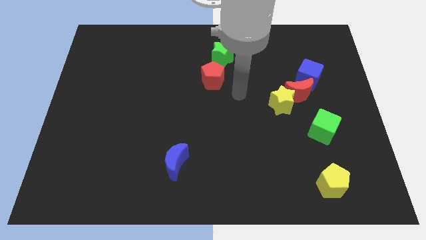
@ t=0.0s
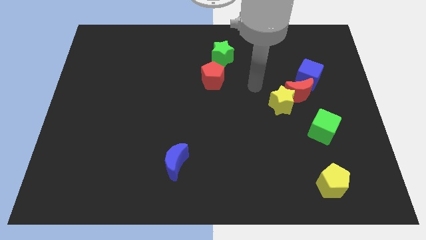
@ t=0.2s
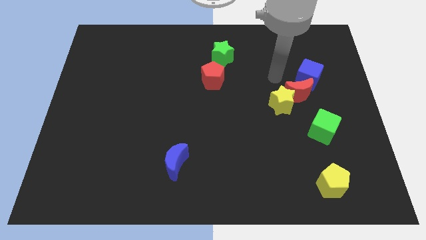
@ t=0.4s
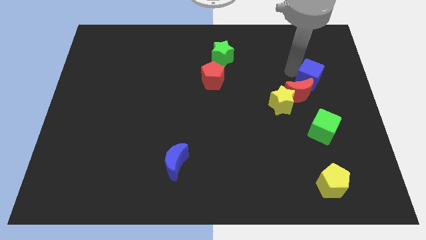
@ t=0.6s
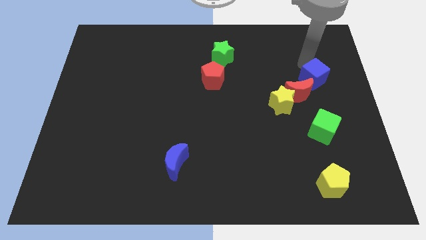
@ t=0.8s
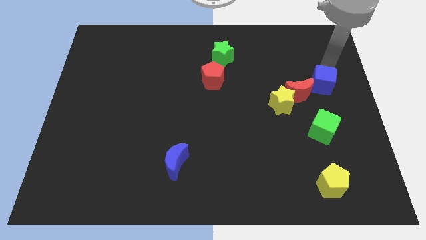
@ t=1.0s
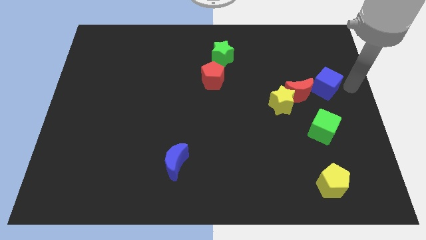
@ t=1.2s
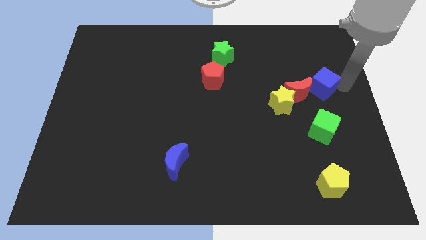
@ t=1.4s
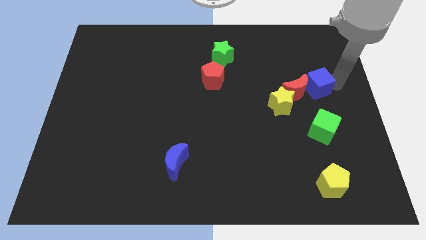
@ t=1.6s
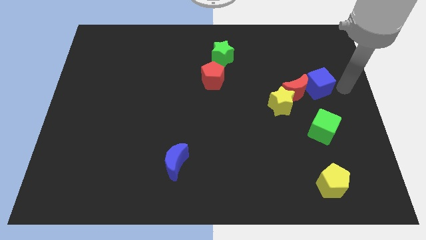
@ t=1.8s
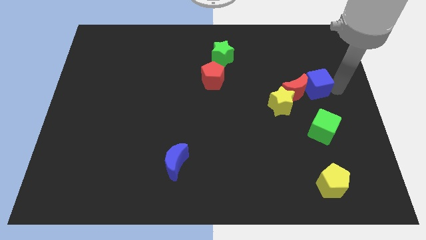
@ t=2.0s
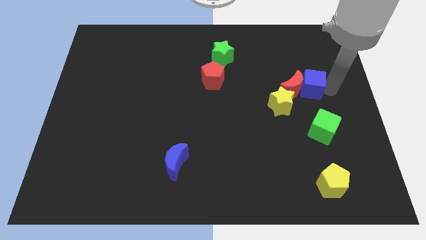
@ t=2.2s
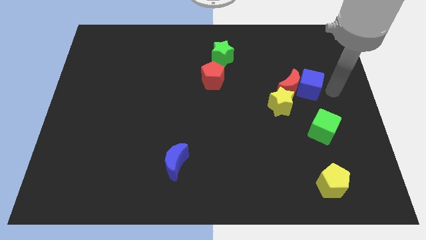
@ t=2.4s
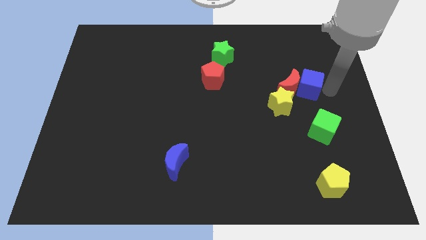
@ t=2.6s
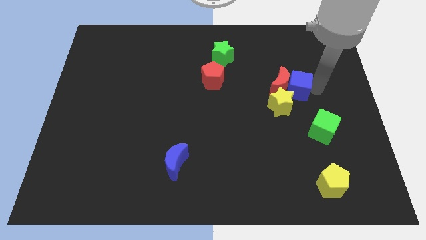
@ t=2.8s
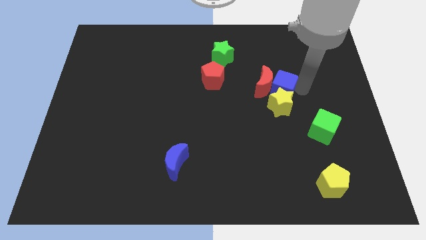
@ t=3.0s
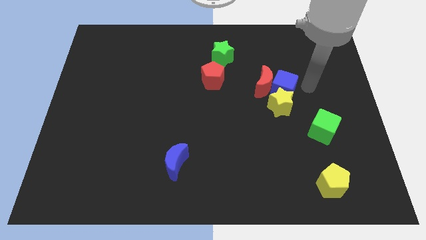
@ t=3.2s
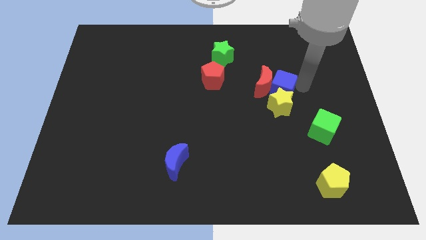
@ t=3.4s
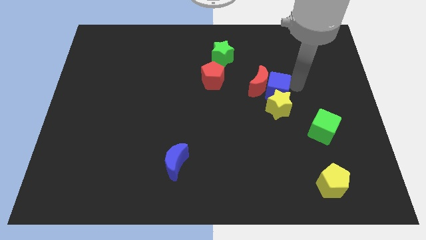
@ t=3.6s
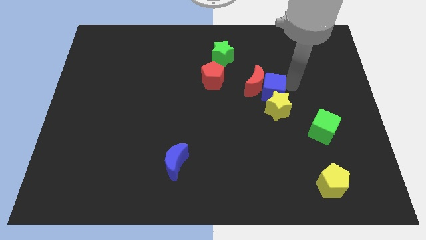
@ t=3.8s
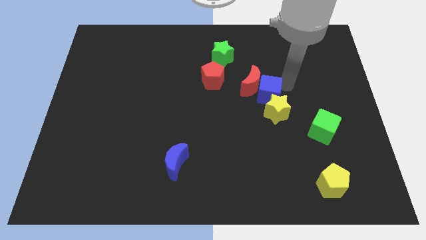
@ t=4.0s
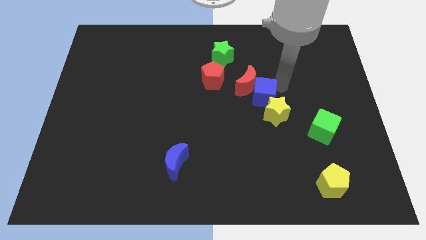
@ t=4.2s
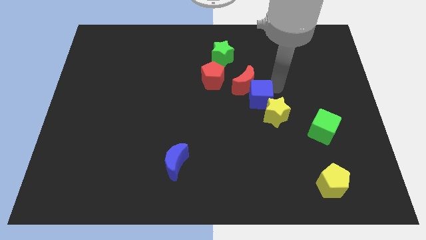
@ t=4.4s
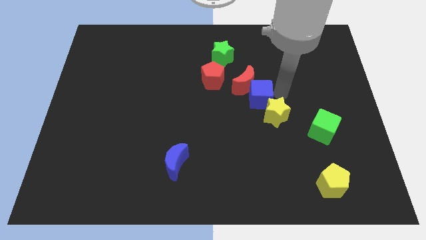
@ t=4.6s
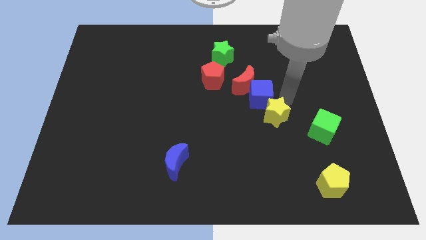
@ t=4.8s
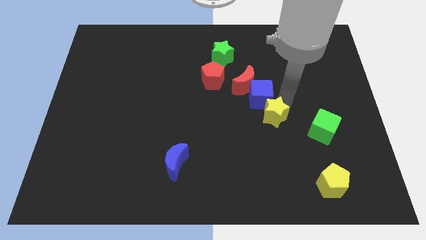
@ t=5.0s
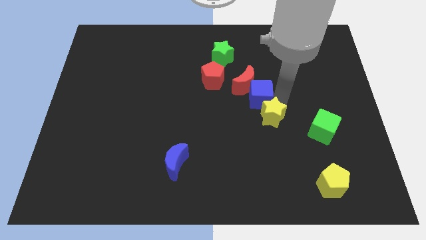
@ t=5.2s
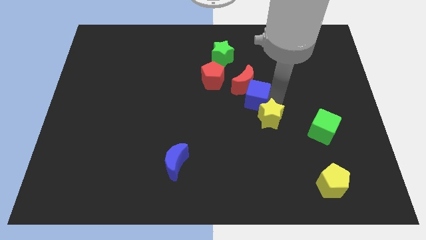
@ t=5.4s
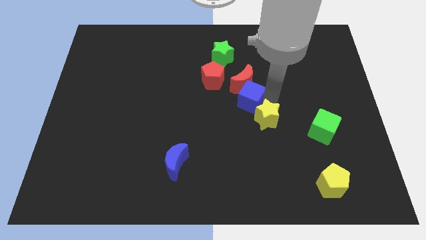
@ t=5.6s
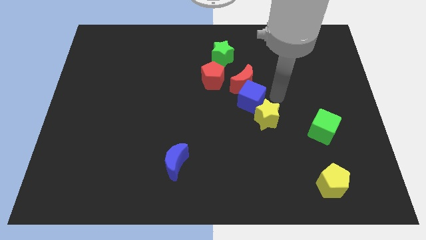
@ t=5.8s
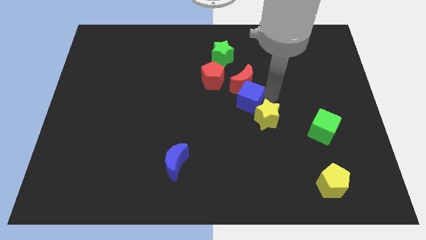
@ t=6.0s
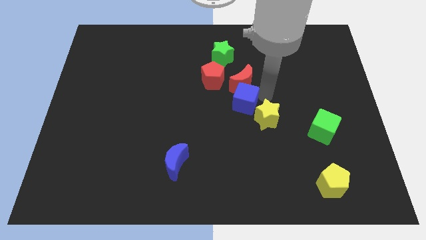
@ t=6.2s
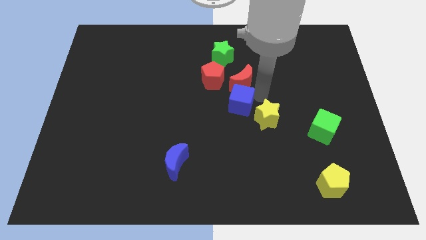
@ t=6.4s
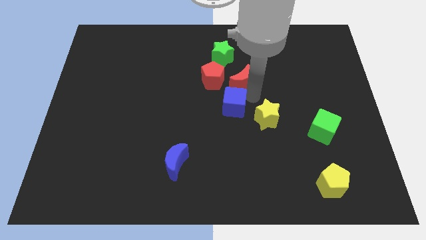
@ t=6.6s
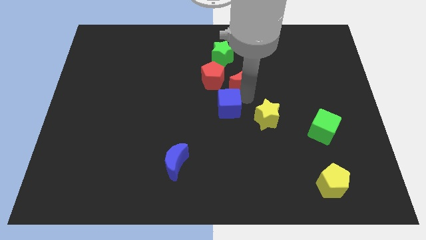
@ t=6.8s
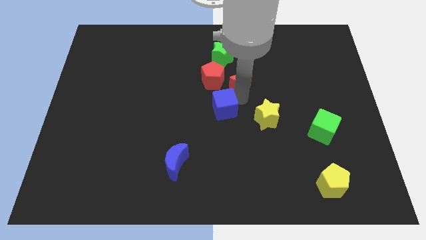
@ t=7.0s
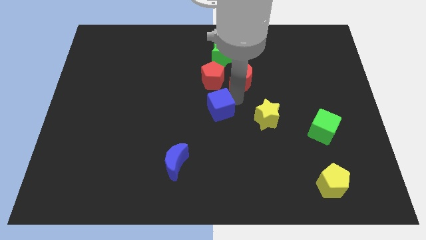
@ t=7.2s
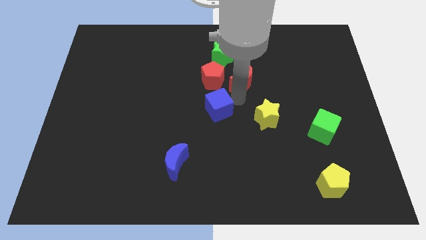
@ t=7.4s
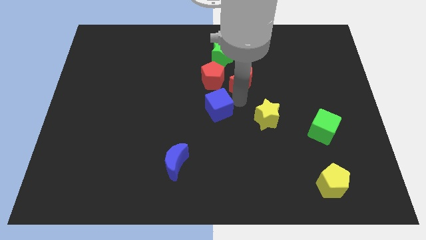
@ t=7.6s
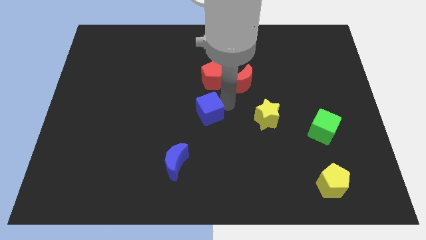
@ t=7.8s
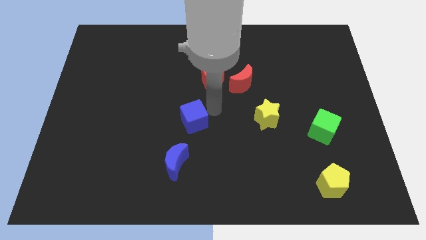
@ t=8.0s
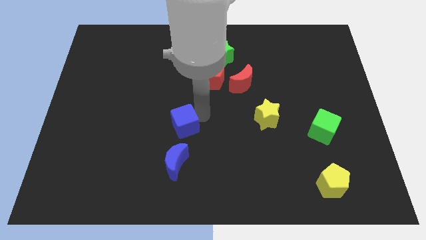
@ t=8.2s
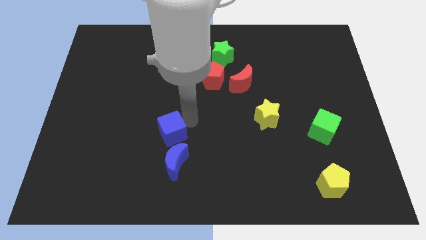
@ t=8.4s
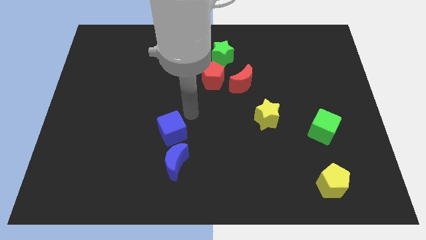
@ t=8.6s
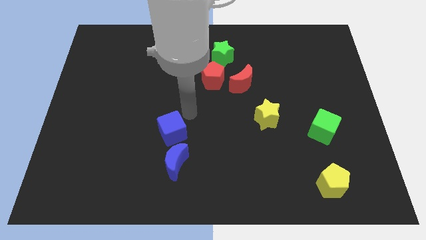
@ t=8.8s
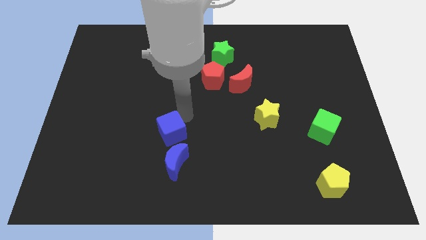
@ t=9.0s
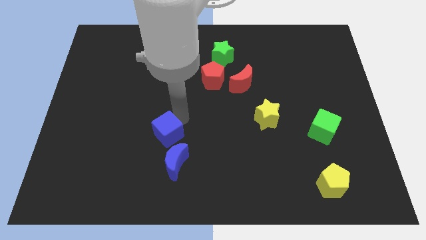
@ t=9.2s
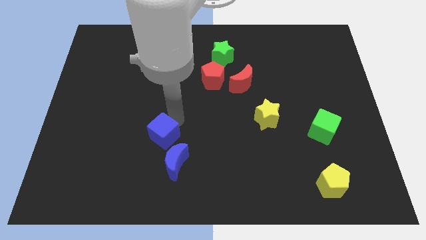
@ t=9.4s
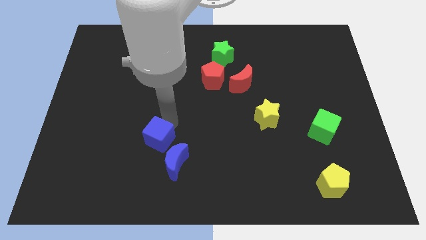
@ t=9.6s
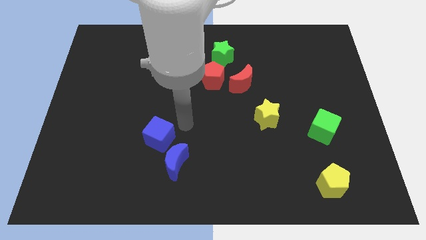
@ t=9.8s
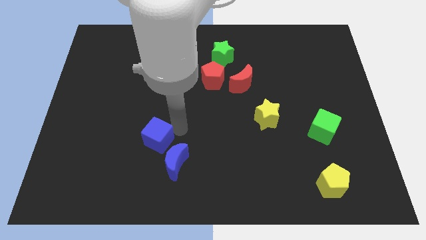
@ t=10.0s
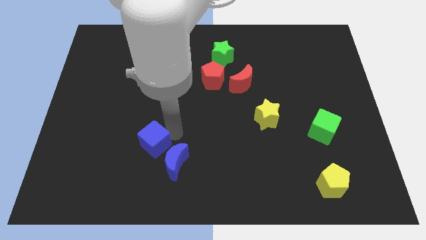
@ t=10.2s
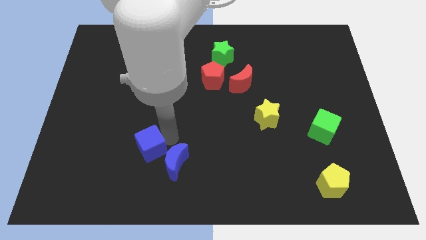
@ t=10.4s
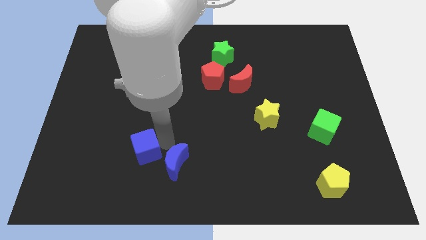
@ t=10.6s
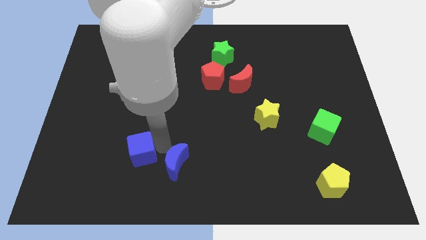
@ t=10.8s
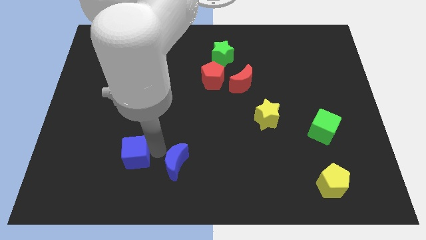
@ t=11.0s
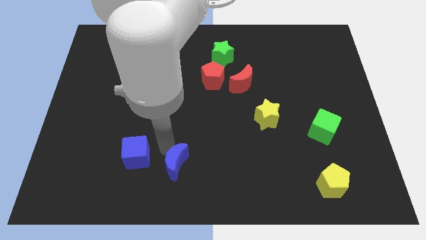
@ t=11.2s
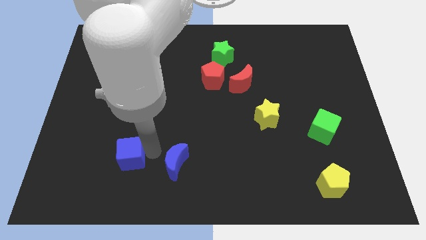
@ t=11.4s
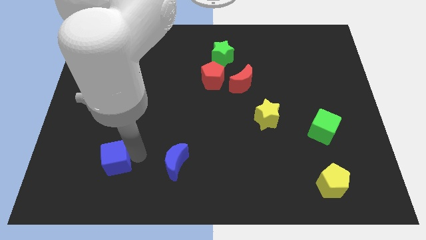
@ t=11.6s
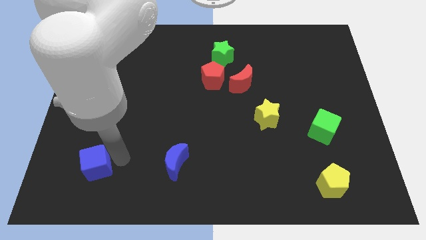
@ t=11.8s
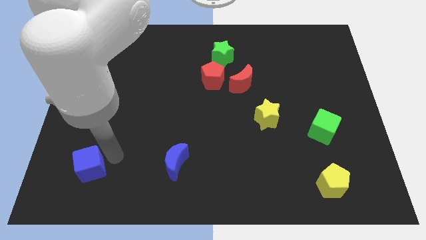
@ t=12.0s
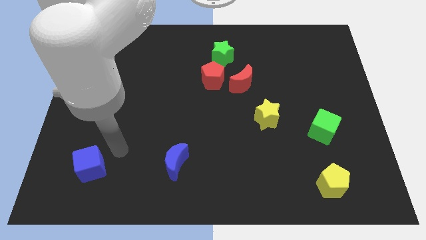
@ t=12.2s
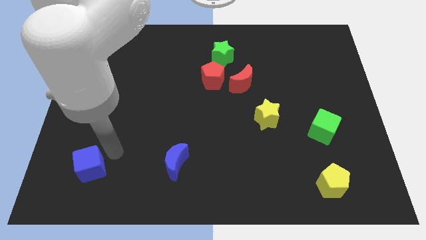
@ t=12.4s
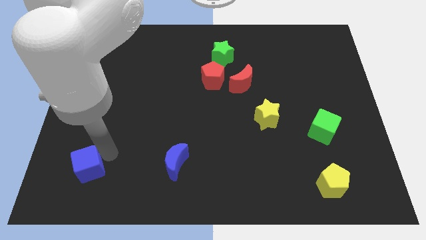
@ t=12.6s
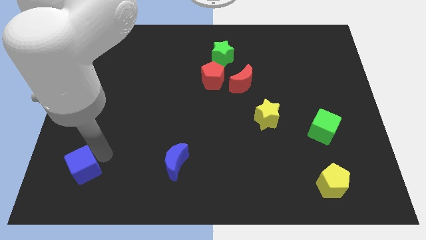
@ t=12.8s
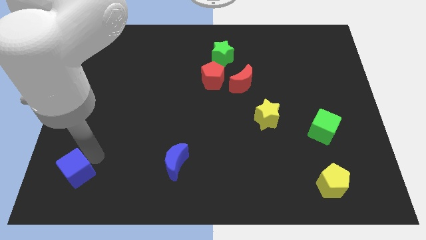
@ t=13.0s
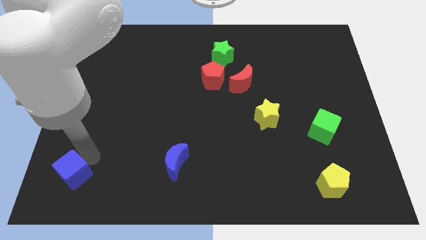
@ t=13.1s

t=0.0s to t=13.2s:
slide the blue cube to the bottom left of the board
